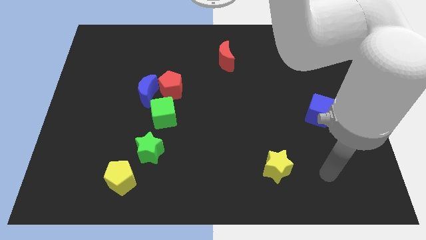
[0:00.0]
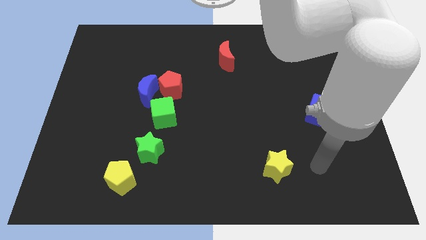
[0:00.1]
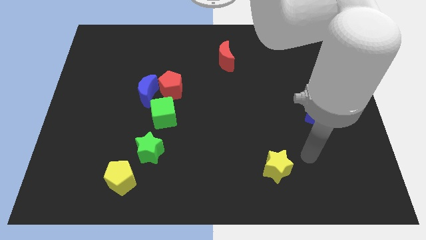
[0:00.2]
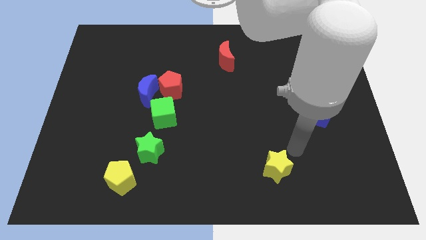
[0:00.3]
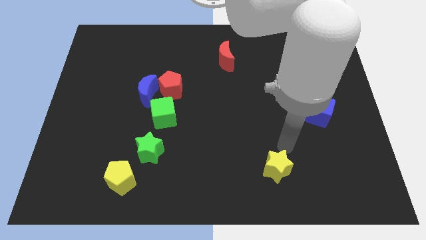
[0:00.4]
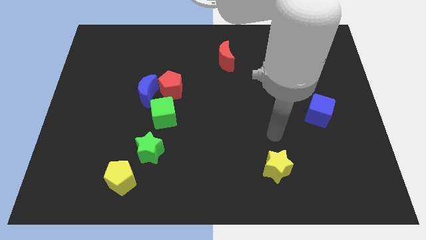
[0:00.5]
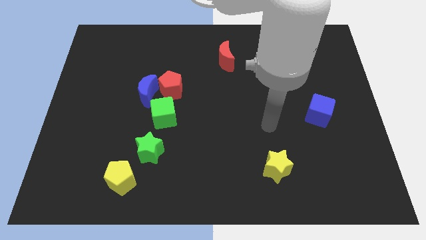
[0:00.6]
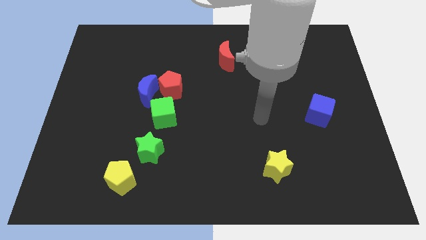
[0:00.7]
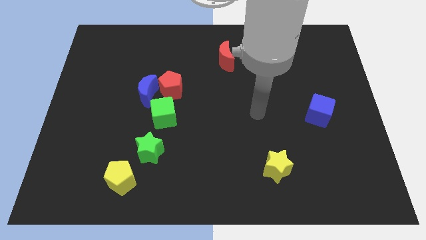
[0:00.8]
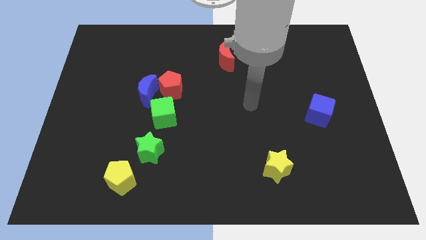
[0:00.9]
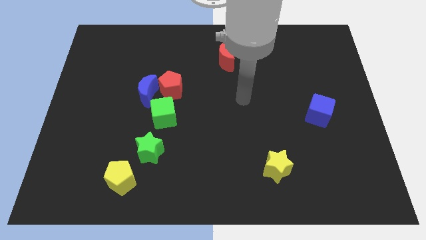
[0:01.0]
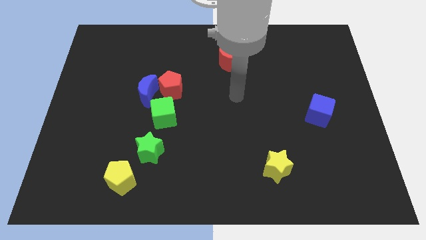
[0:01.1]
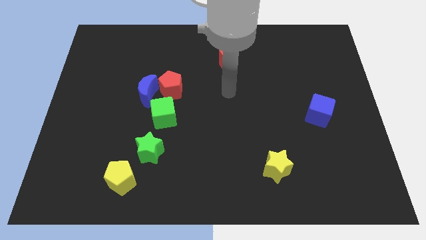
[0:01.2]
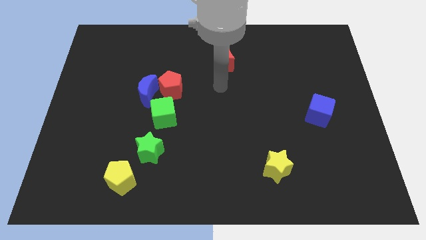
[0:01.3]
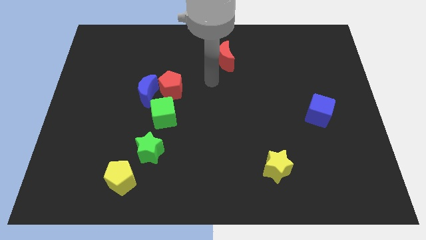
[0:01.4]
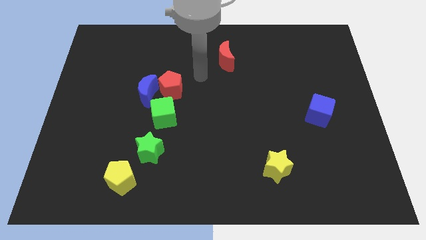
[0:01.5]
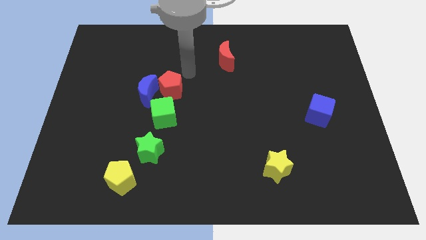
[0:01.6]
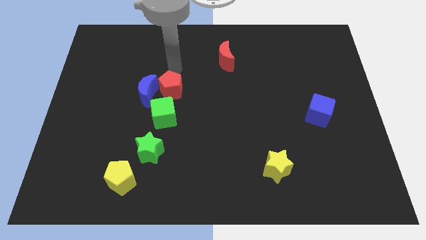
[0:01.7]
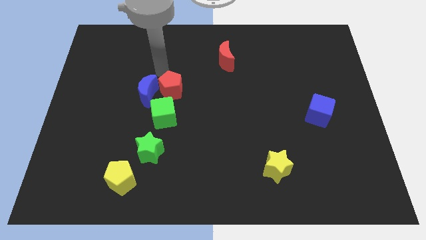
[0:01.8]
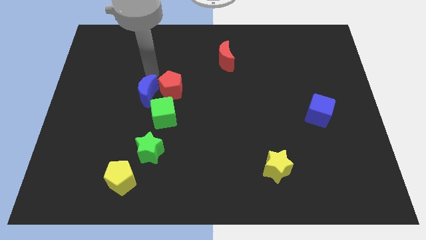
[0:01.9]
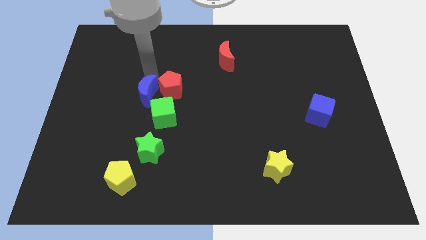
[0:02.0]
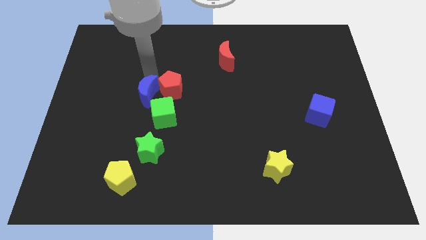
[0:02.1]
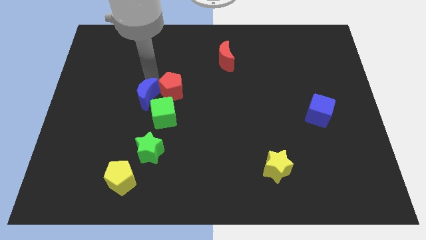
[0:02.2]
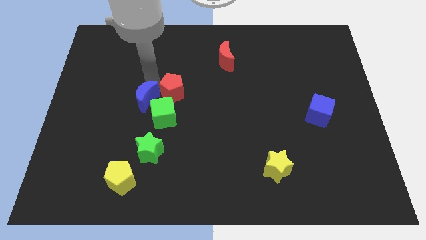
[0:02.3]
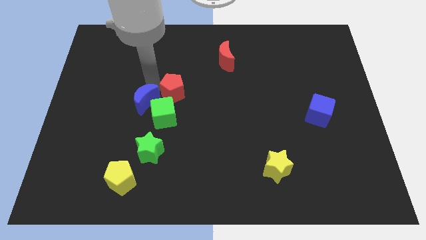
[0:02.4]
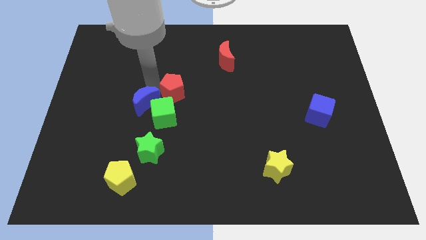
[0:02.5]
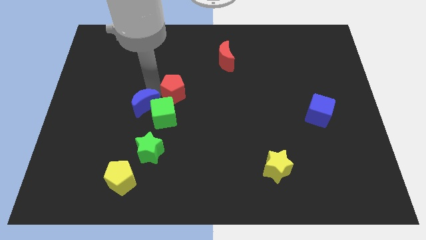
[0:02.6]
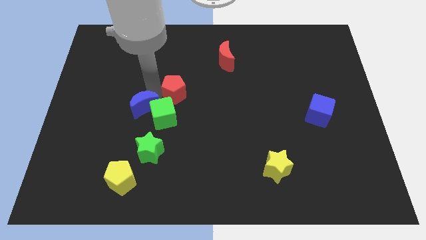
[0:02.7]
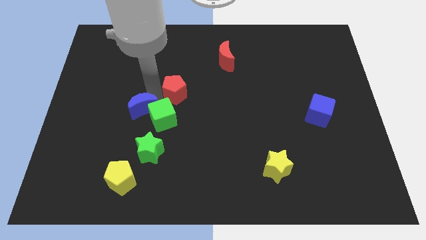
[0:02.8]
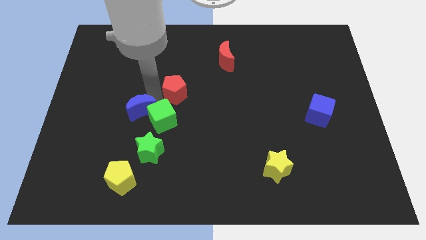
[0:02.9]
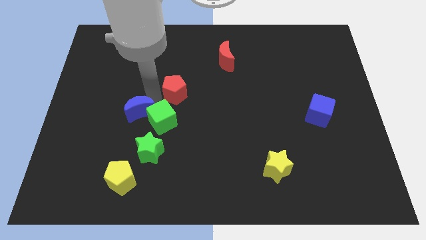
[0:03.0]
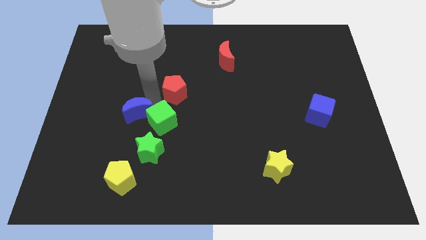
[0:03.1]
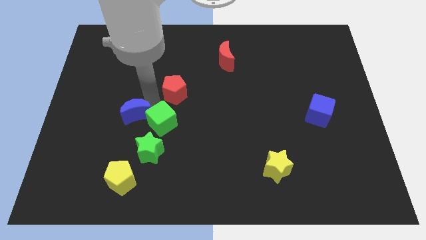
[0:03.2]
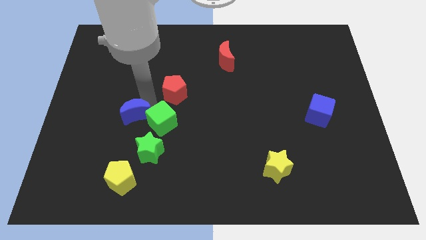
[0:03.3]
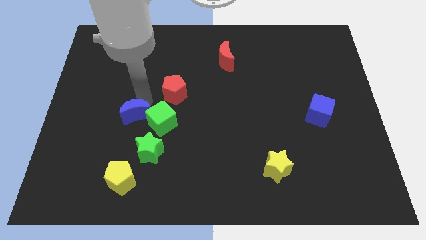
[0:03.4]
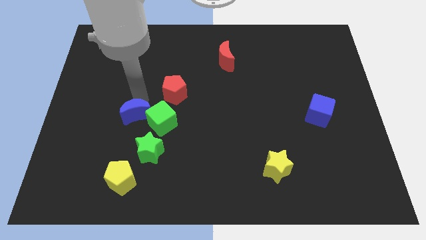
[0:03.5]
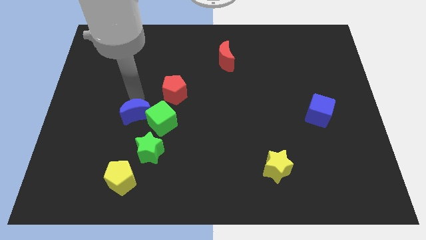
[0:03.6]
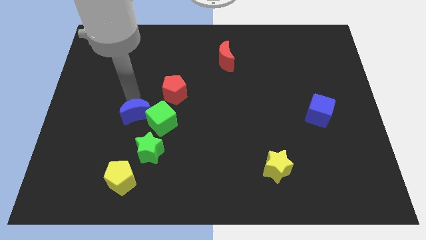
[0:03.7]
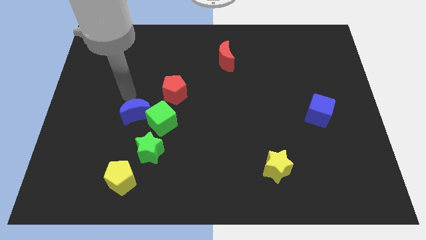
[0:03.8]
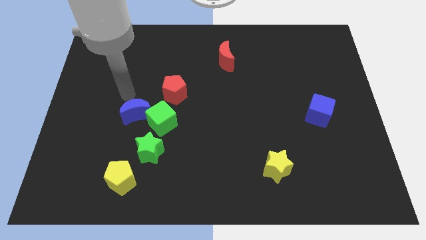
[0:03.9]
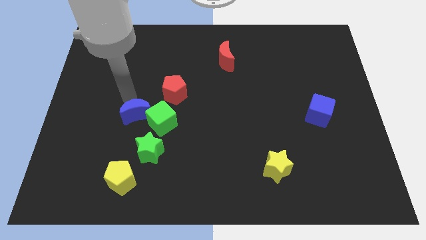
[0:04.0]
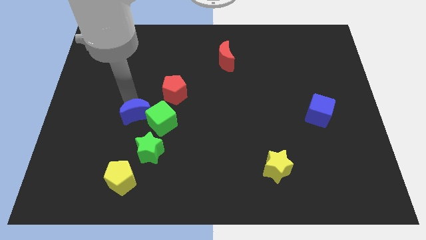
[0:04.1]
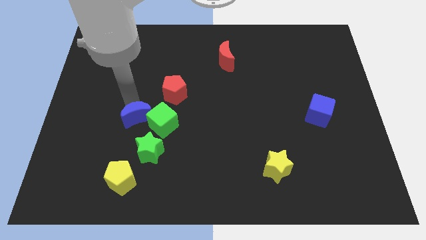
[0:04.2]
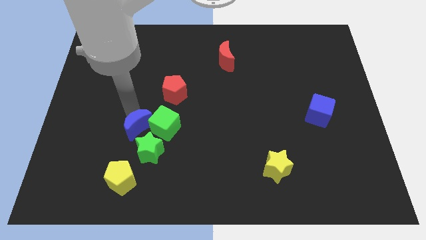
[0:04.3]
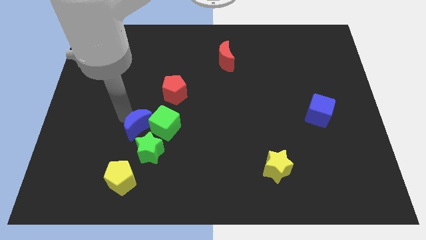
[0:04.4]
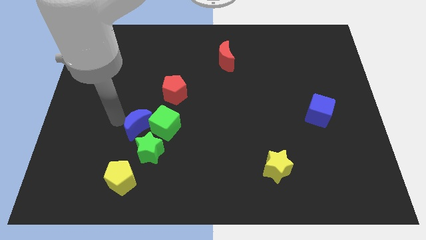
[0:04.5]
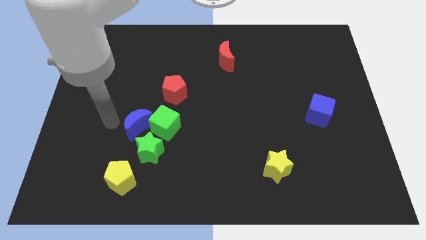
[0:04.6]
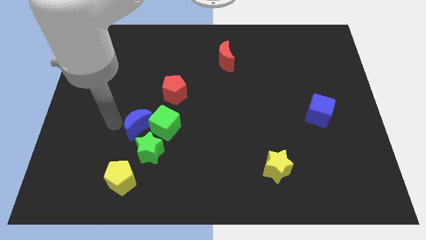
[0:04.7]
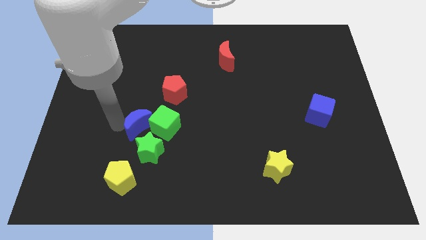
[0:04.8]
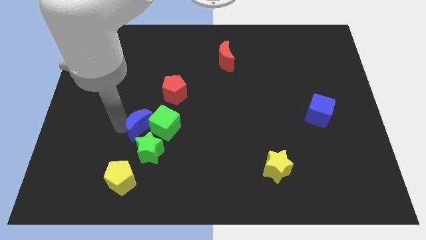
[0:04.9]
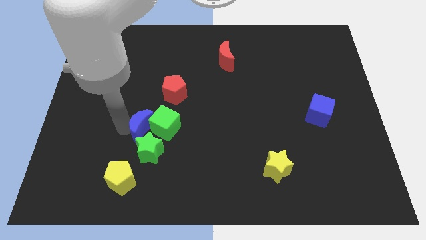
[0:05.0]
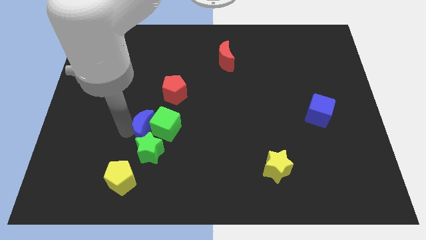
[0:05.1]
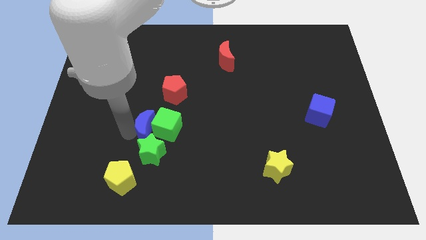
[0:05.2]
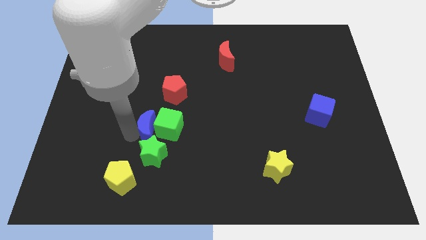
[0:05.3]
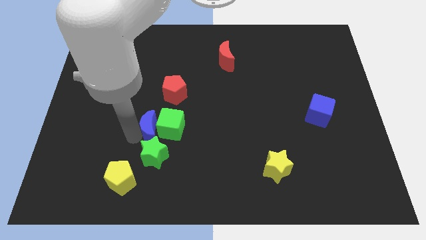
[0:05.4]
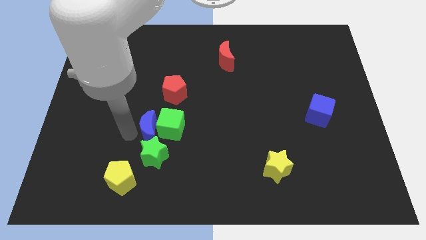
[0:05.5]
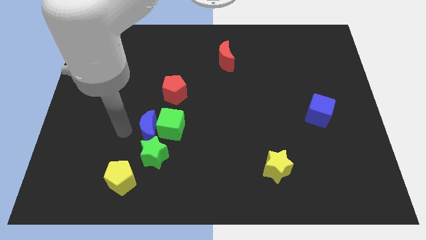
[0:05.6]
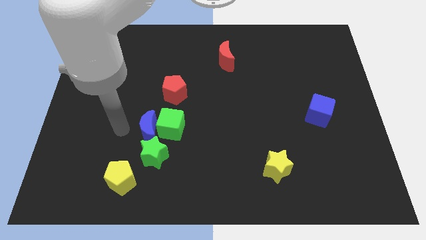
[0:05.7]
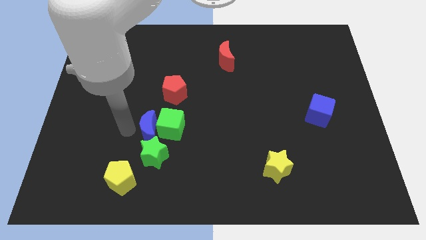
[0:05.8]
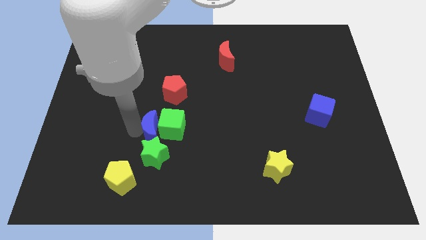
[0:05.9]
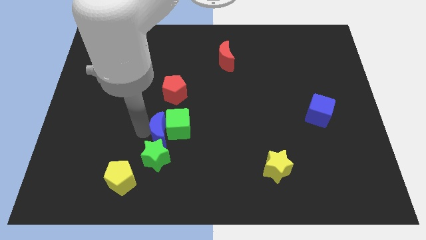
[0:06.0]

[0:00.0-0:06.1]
slide the blue moon diagonally up and to the right of the green star
